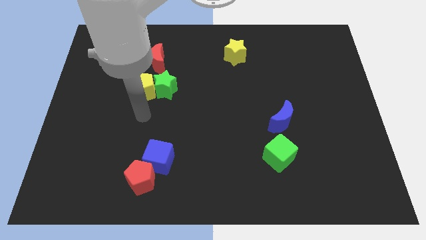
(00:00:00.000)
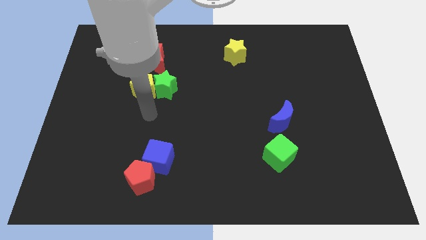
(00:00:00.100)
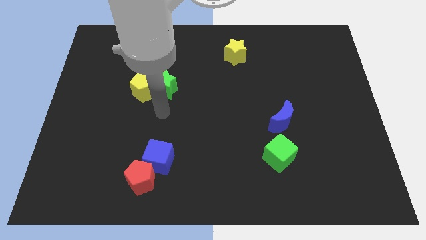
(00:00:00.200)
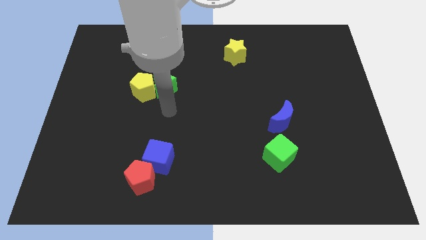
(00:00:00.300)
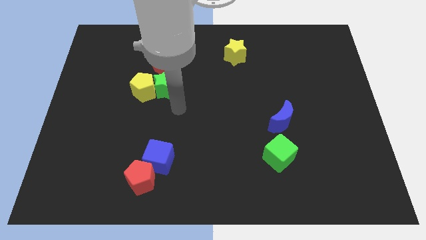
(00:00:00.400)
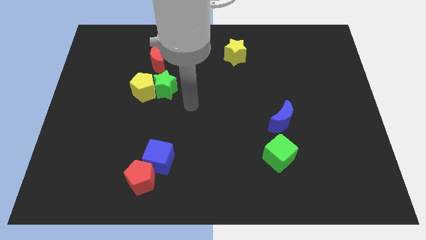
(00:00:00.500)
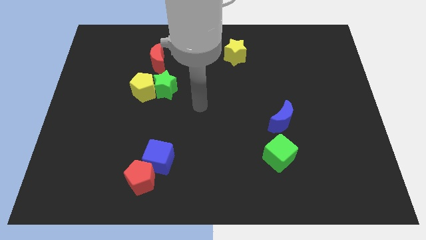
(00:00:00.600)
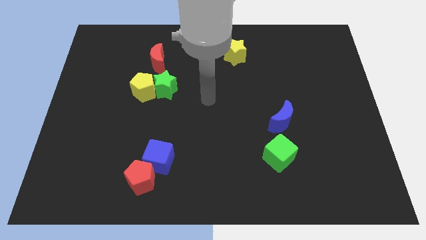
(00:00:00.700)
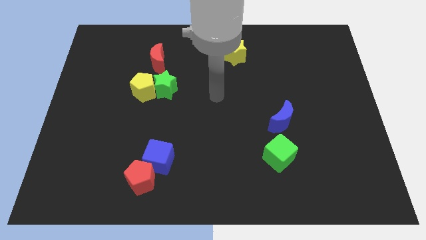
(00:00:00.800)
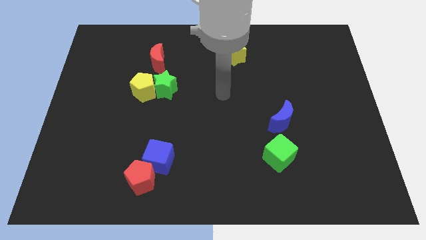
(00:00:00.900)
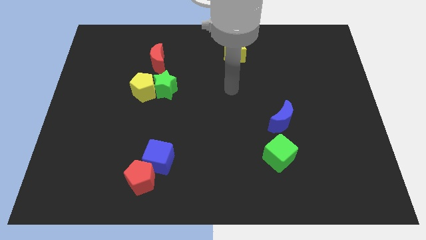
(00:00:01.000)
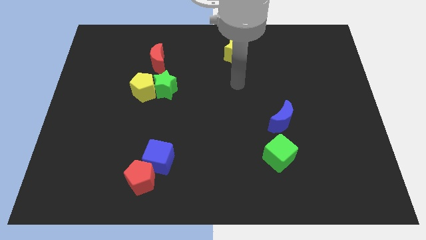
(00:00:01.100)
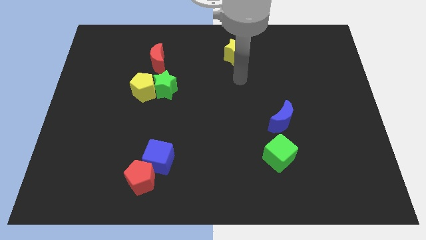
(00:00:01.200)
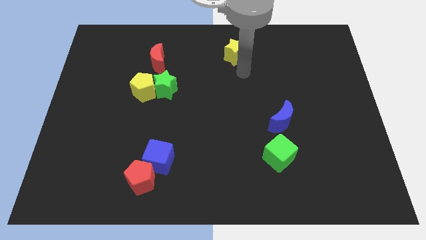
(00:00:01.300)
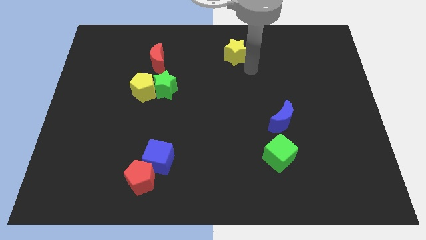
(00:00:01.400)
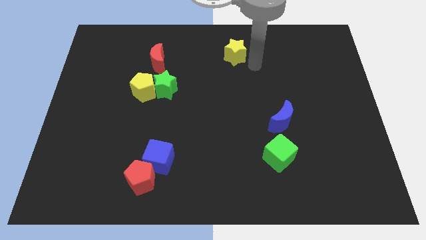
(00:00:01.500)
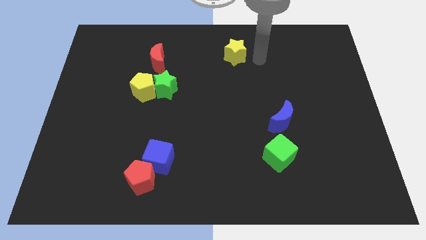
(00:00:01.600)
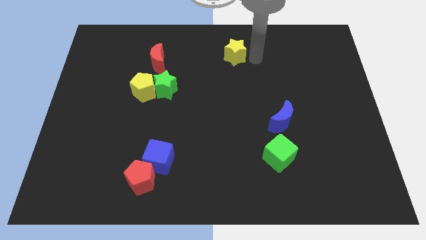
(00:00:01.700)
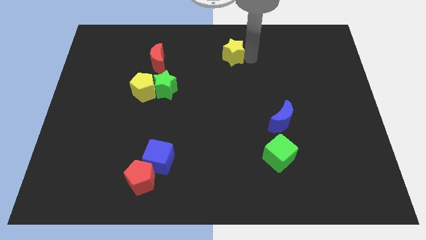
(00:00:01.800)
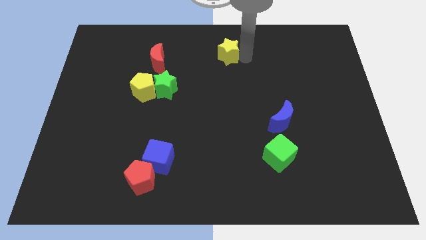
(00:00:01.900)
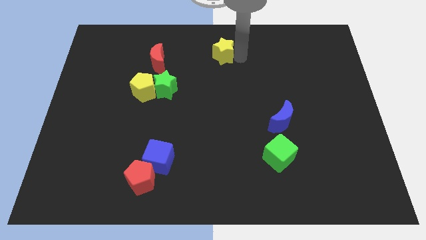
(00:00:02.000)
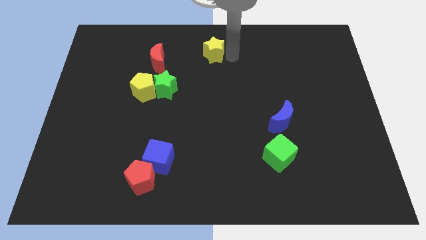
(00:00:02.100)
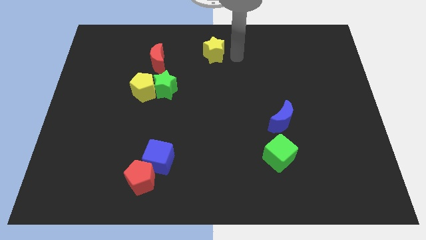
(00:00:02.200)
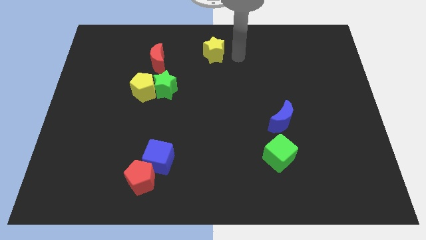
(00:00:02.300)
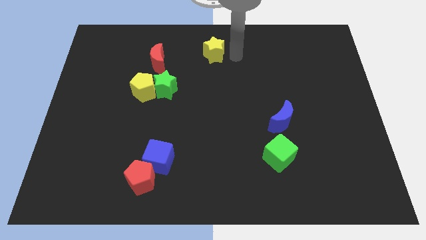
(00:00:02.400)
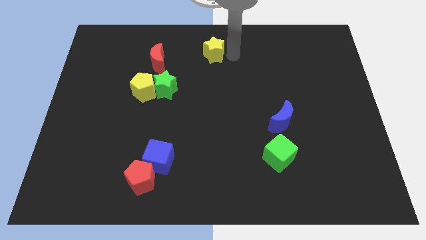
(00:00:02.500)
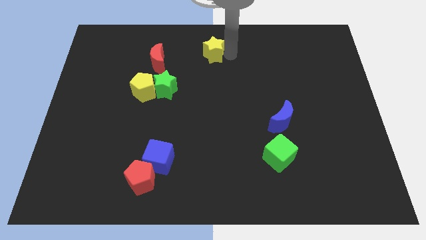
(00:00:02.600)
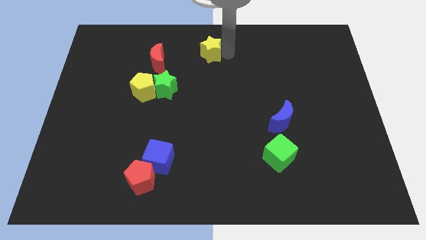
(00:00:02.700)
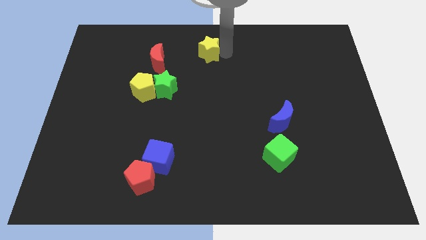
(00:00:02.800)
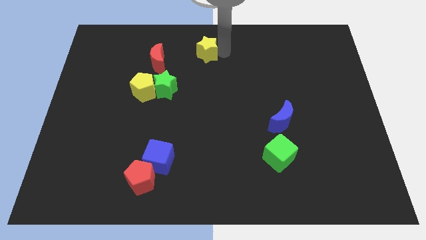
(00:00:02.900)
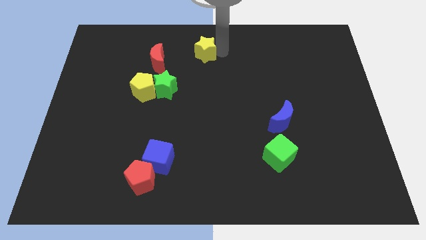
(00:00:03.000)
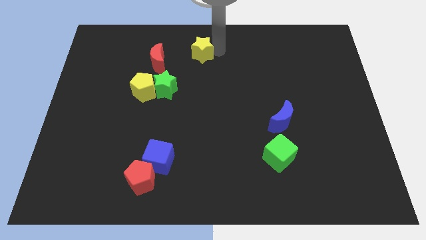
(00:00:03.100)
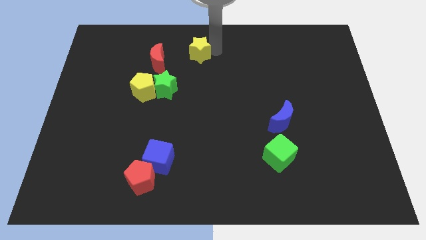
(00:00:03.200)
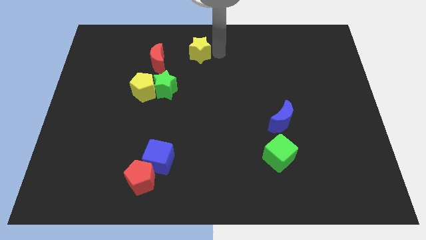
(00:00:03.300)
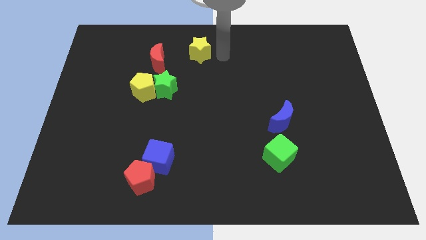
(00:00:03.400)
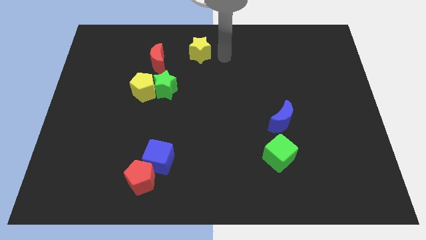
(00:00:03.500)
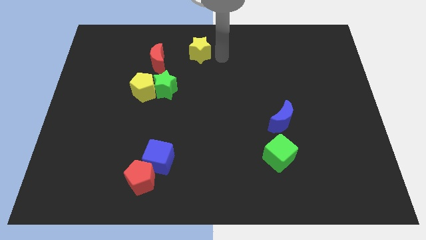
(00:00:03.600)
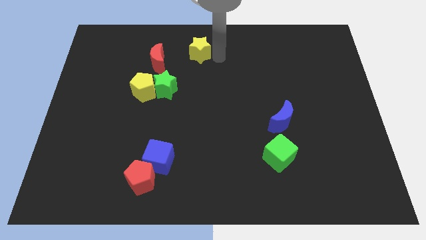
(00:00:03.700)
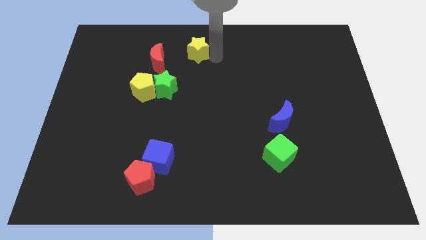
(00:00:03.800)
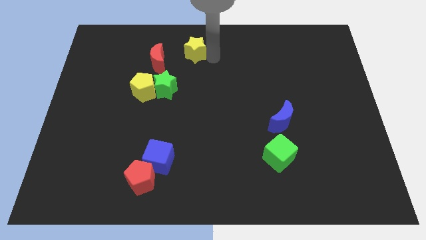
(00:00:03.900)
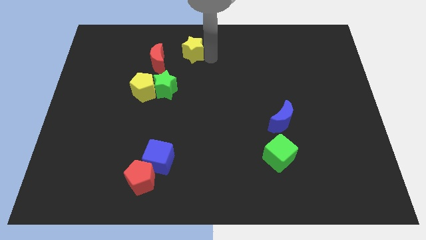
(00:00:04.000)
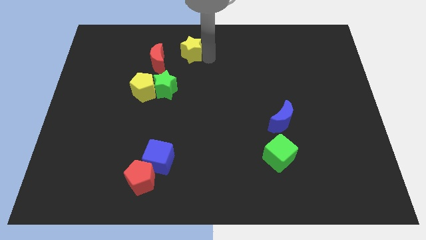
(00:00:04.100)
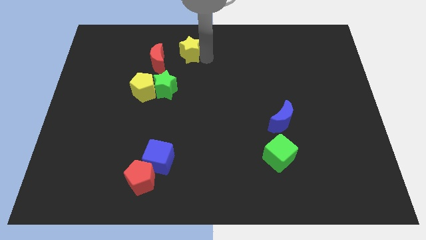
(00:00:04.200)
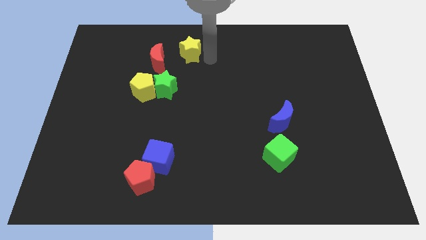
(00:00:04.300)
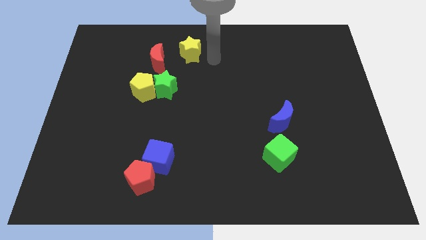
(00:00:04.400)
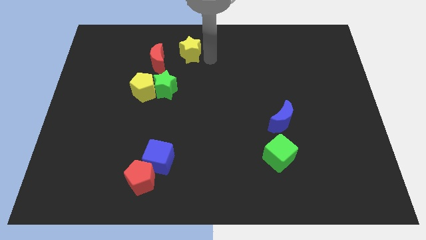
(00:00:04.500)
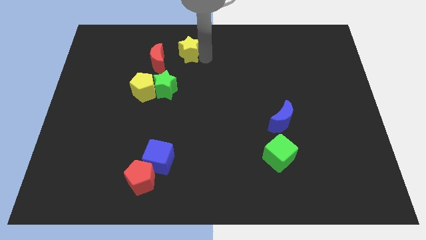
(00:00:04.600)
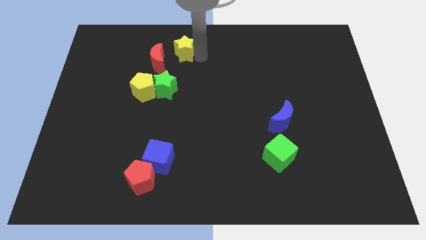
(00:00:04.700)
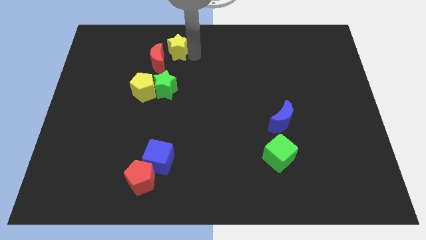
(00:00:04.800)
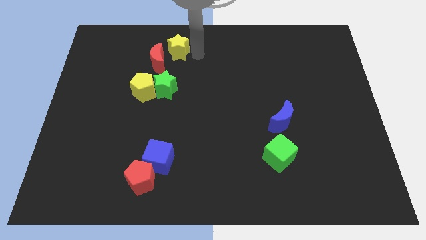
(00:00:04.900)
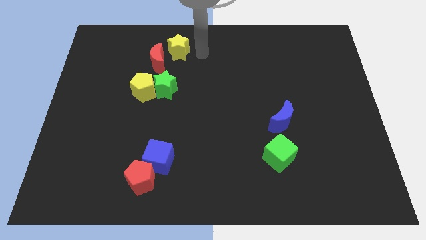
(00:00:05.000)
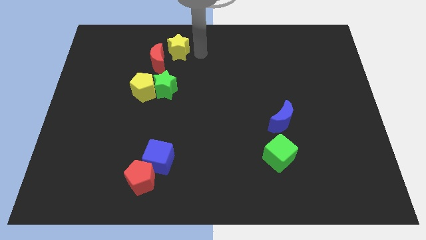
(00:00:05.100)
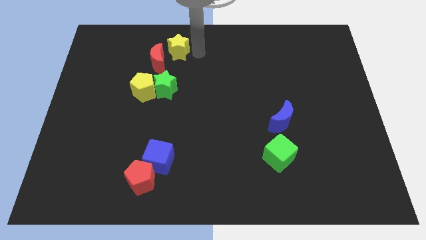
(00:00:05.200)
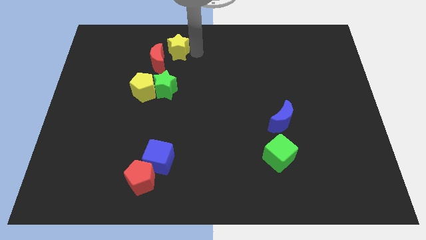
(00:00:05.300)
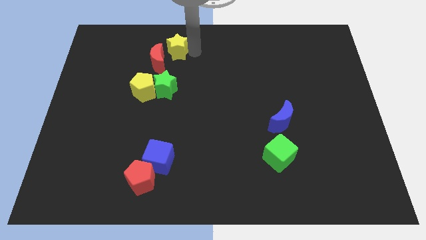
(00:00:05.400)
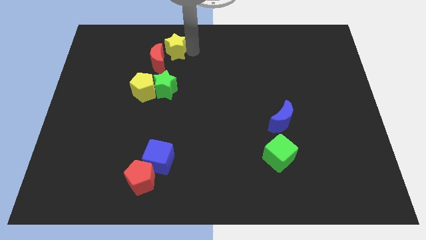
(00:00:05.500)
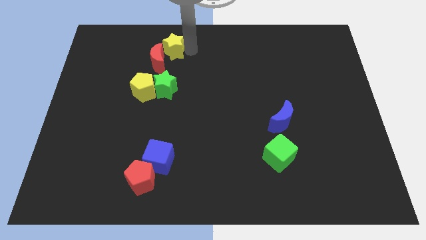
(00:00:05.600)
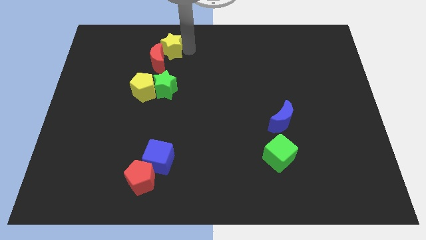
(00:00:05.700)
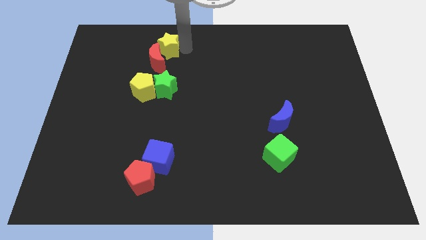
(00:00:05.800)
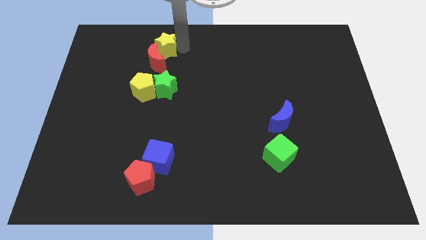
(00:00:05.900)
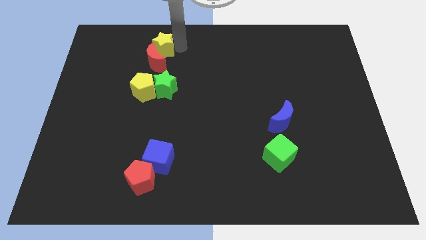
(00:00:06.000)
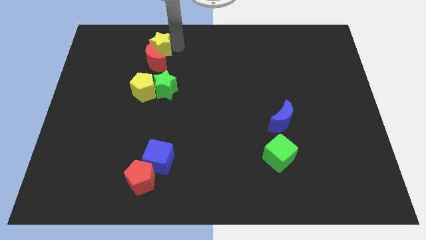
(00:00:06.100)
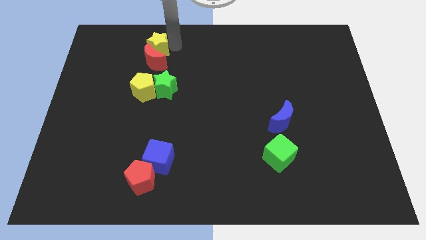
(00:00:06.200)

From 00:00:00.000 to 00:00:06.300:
push the yellow star to the left

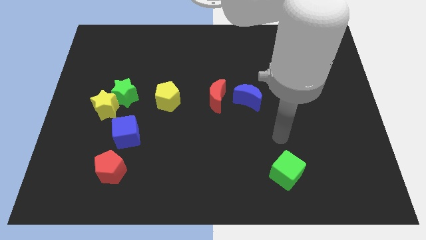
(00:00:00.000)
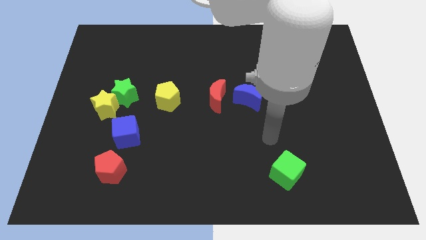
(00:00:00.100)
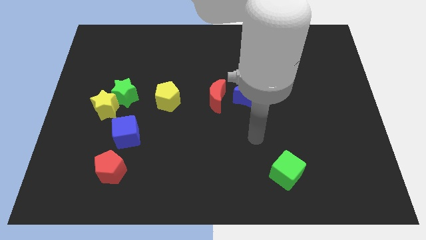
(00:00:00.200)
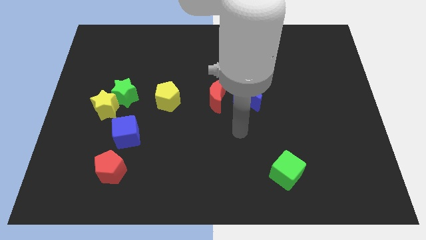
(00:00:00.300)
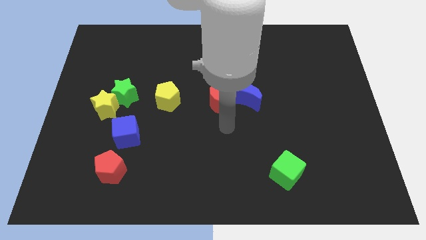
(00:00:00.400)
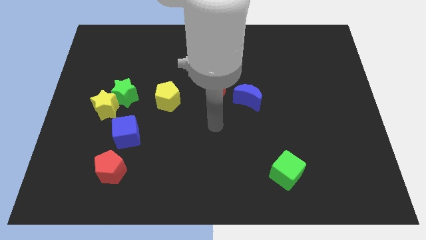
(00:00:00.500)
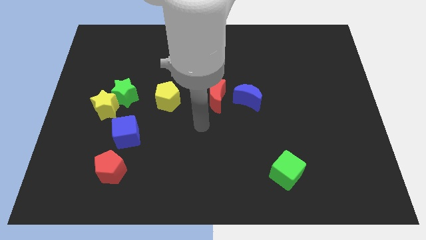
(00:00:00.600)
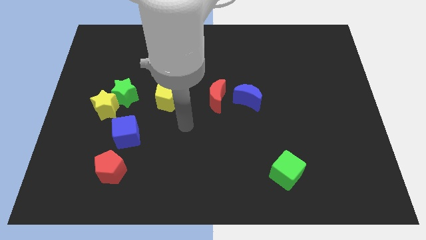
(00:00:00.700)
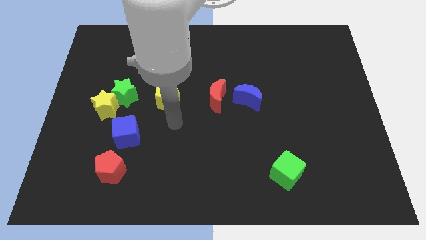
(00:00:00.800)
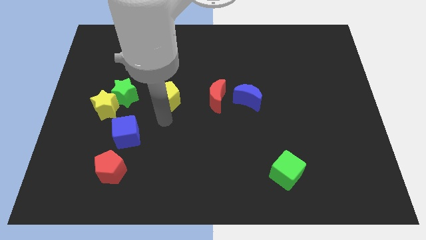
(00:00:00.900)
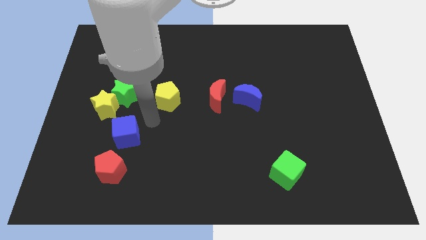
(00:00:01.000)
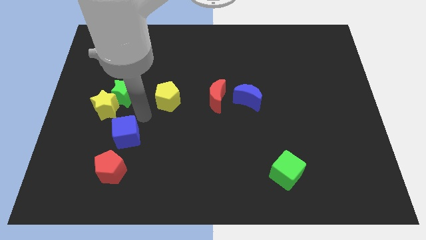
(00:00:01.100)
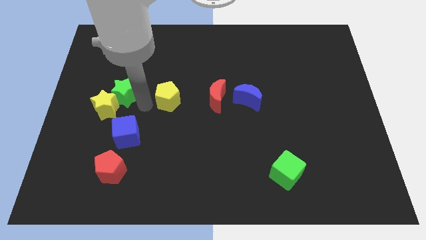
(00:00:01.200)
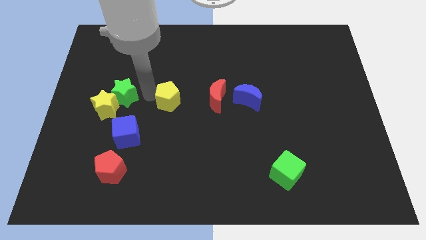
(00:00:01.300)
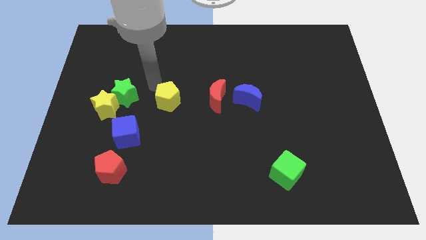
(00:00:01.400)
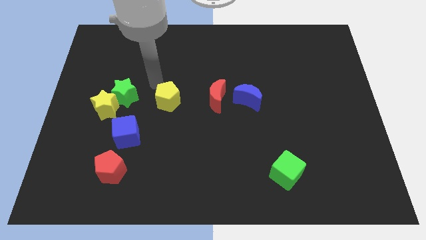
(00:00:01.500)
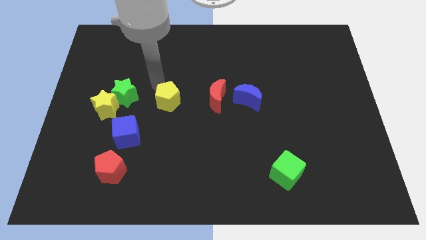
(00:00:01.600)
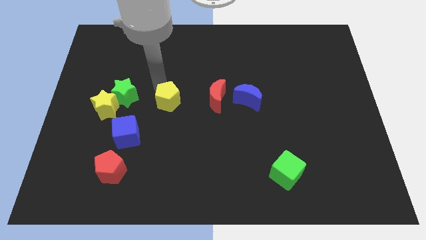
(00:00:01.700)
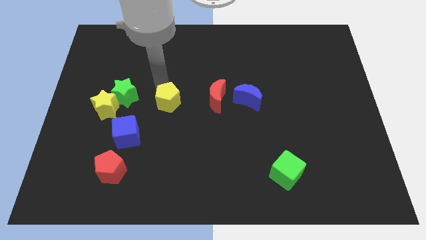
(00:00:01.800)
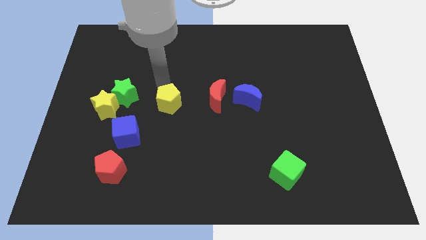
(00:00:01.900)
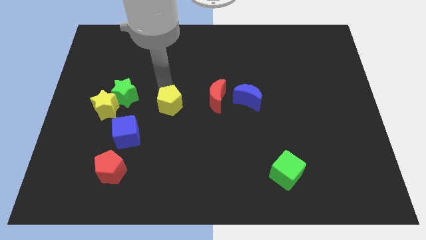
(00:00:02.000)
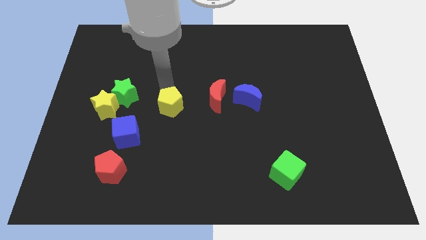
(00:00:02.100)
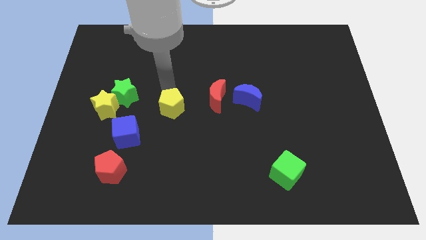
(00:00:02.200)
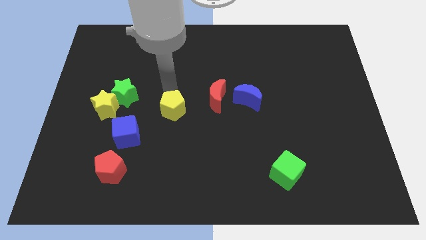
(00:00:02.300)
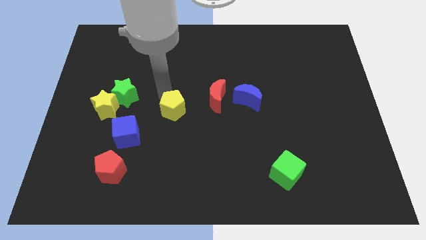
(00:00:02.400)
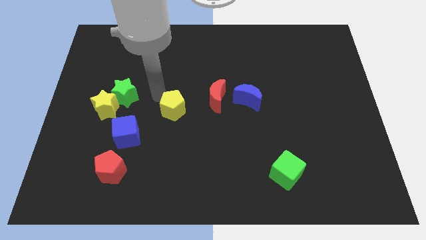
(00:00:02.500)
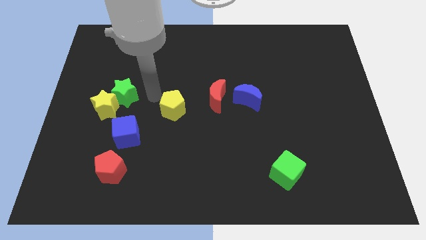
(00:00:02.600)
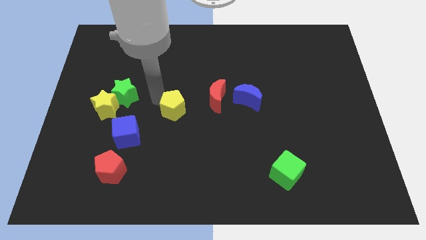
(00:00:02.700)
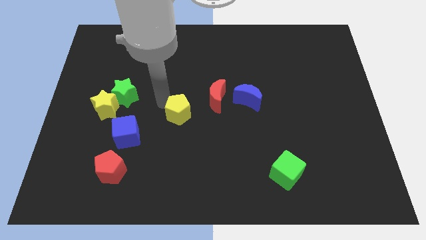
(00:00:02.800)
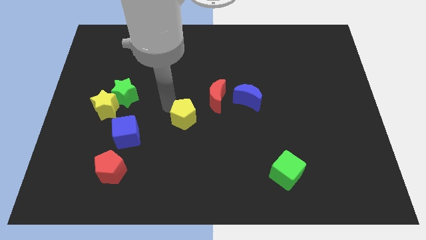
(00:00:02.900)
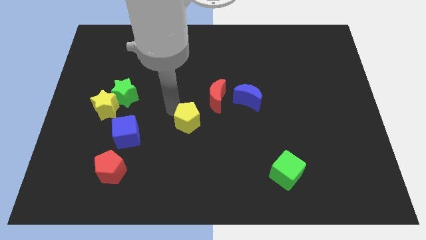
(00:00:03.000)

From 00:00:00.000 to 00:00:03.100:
slide the yellow pentagon a bit down and then to the right
